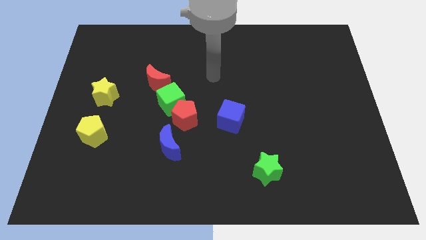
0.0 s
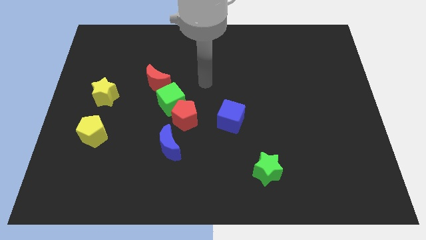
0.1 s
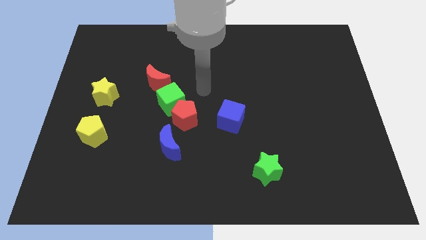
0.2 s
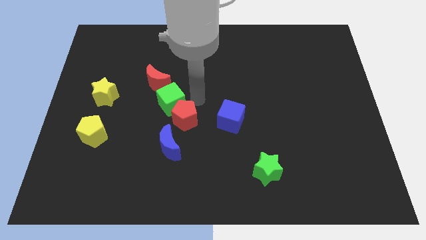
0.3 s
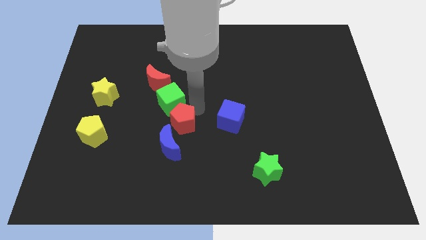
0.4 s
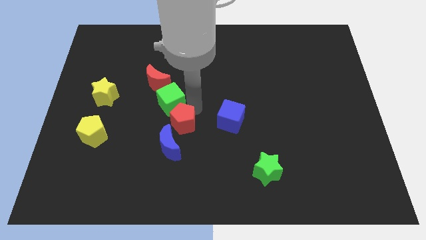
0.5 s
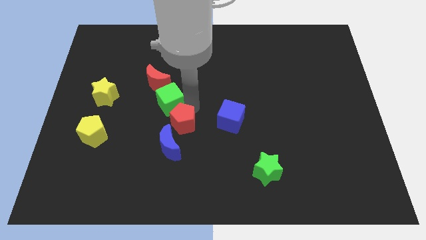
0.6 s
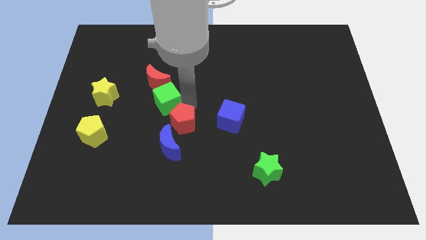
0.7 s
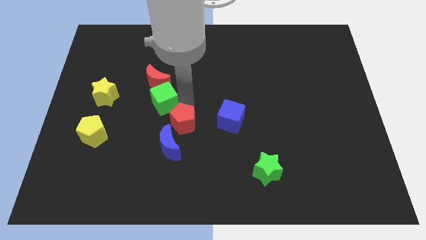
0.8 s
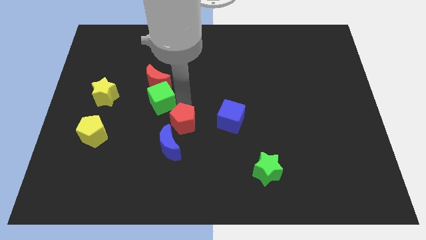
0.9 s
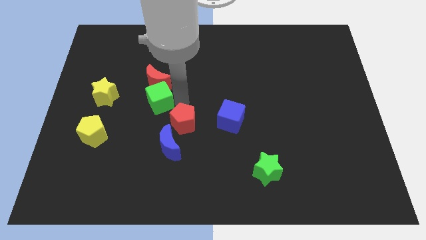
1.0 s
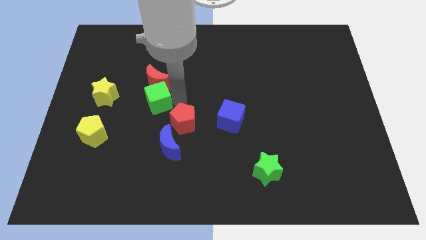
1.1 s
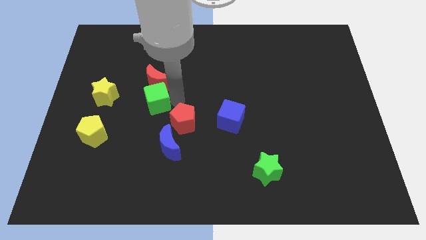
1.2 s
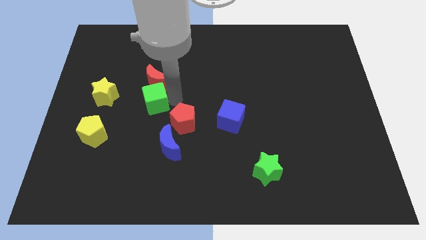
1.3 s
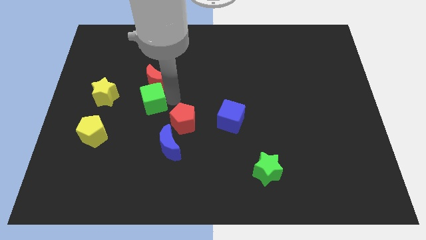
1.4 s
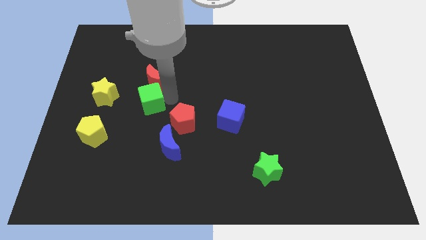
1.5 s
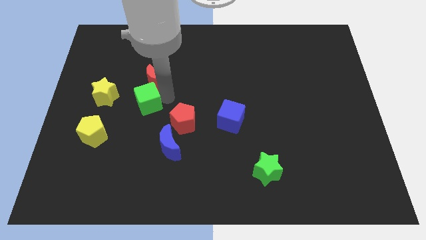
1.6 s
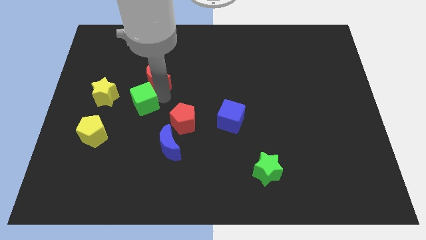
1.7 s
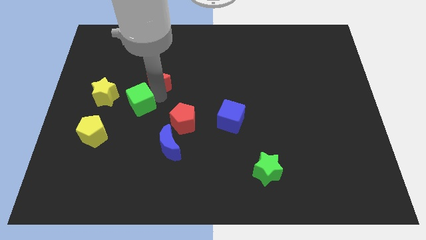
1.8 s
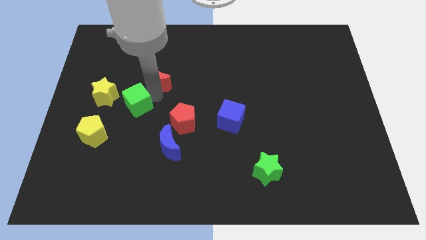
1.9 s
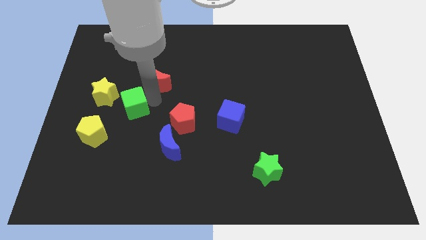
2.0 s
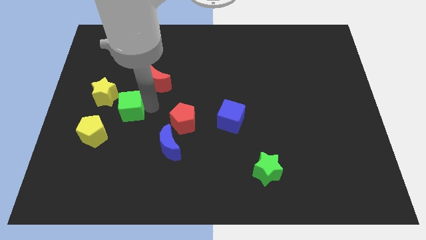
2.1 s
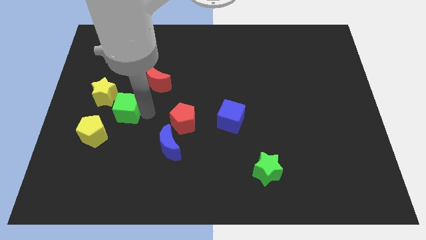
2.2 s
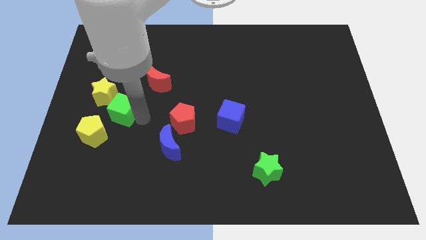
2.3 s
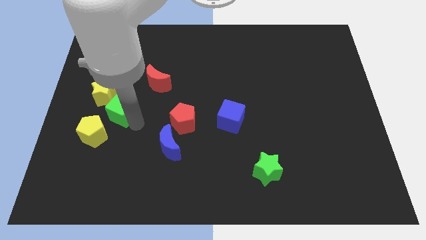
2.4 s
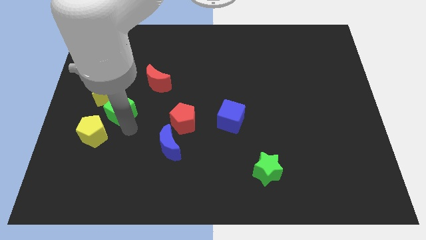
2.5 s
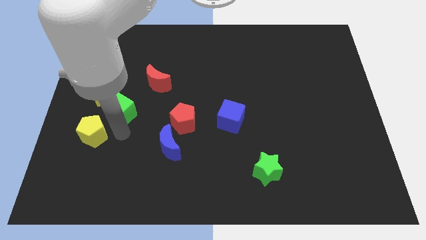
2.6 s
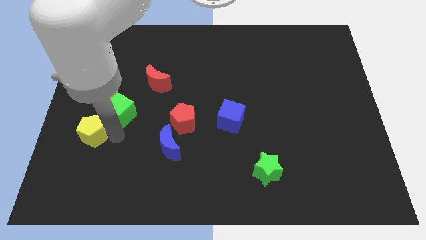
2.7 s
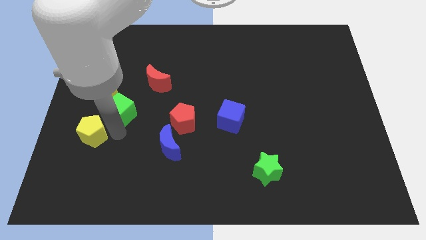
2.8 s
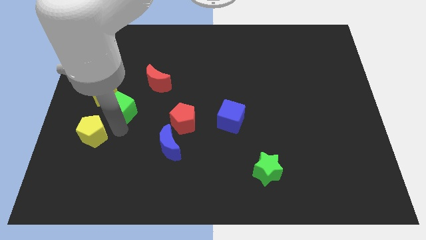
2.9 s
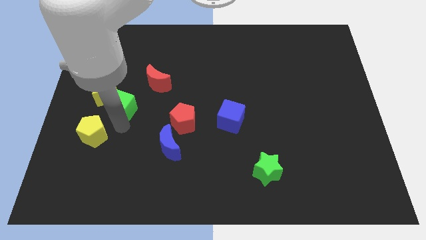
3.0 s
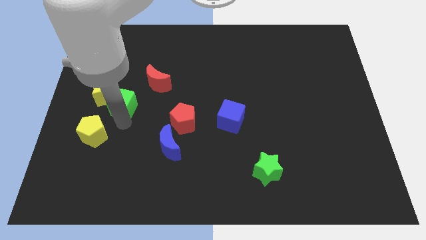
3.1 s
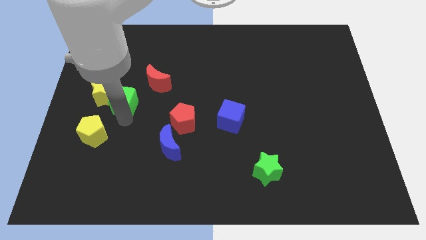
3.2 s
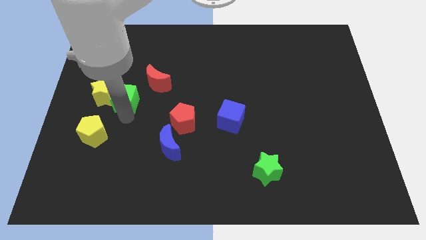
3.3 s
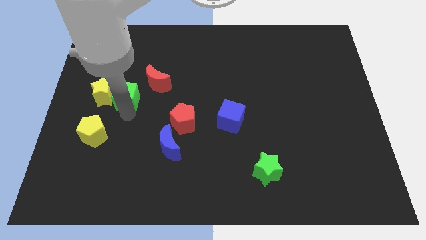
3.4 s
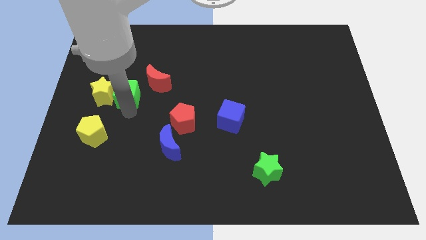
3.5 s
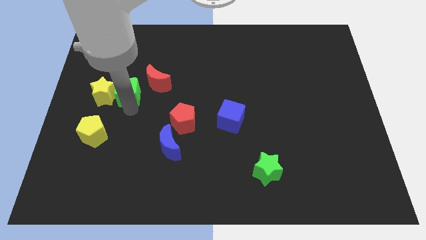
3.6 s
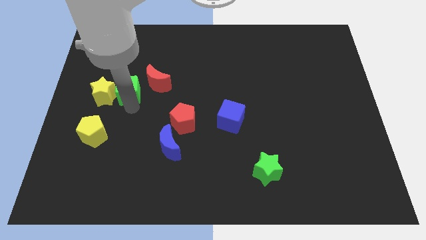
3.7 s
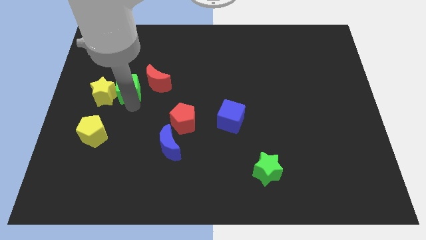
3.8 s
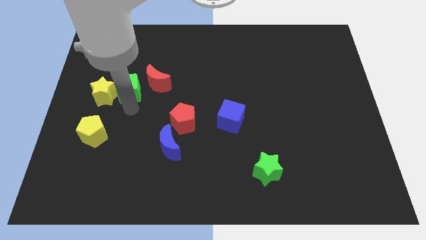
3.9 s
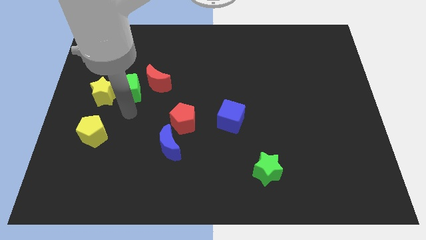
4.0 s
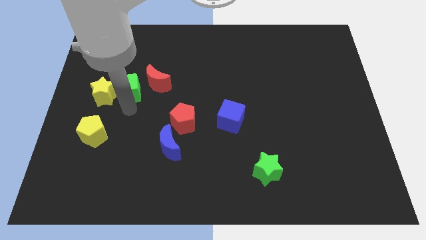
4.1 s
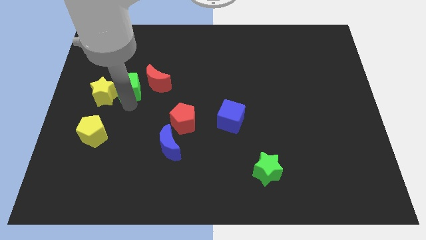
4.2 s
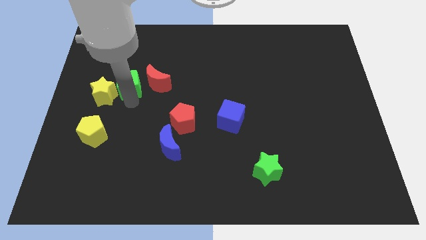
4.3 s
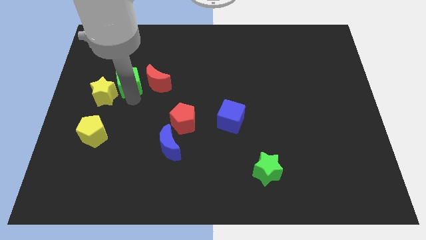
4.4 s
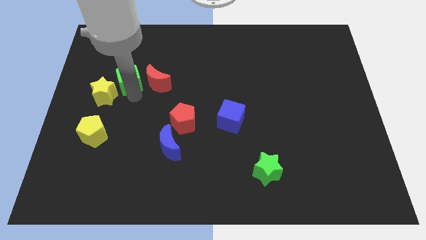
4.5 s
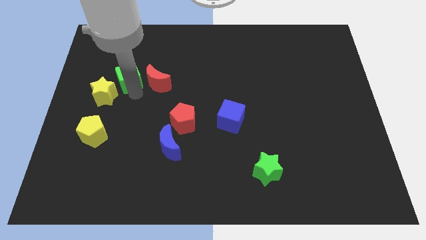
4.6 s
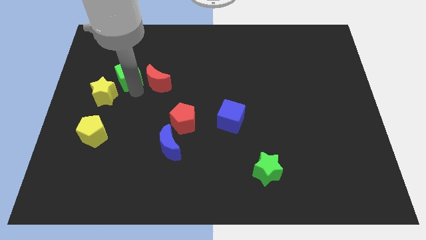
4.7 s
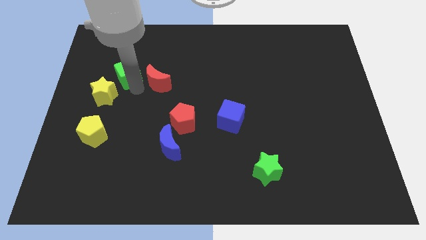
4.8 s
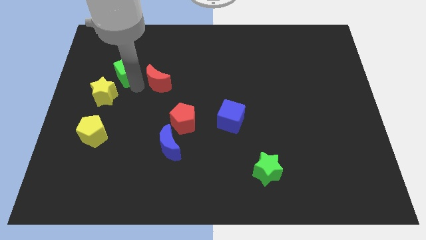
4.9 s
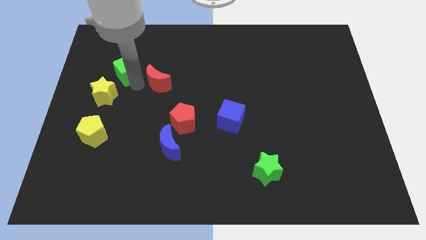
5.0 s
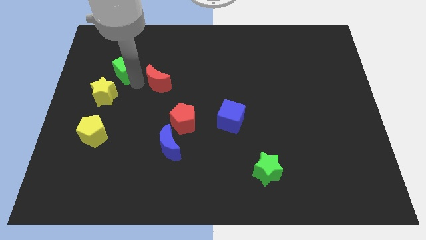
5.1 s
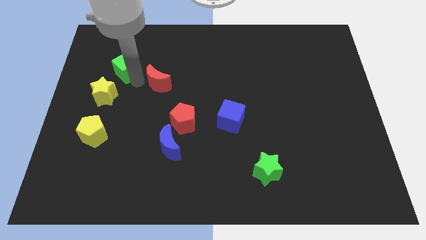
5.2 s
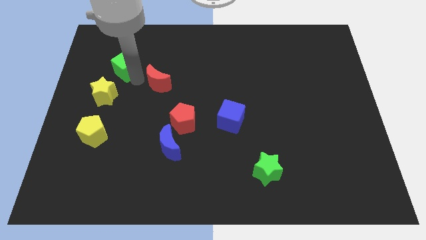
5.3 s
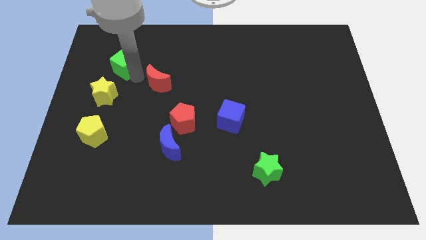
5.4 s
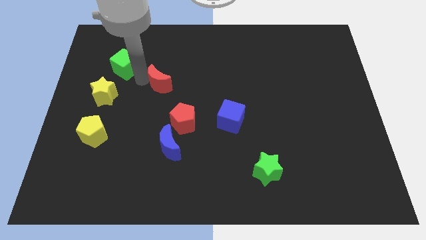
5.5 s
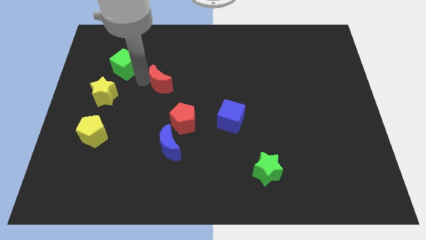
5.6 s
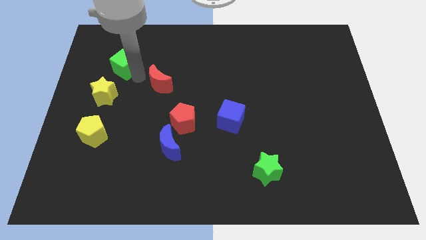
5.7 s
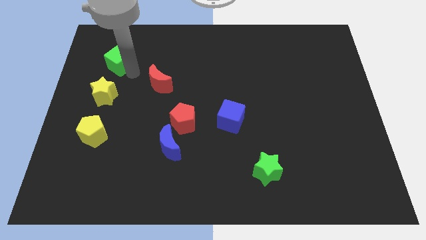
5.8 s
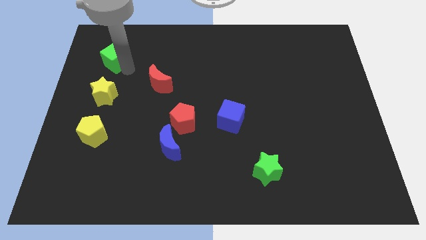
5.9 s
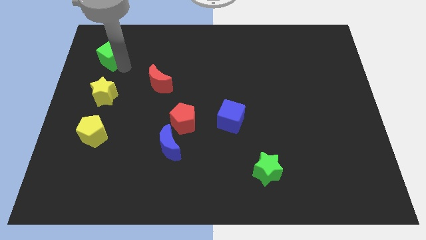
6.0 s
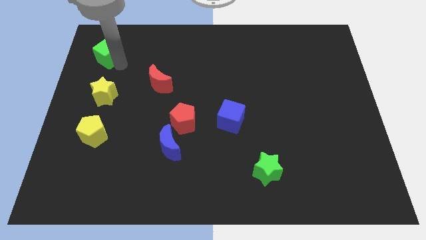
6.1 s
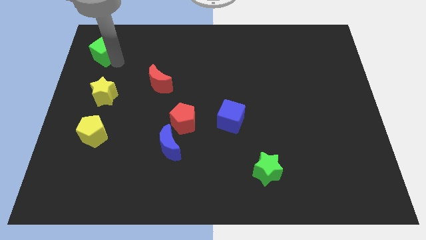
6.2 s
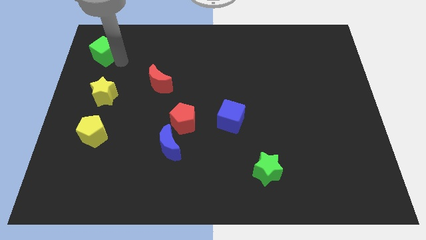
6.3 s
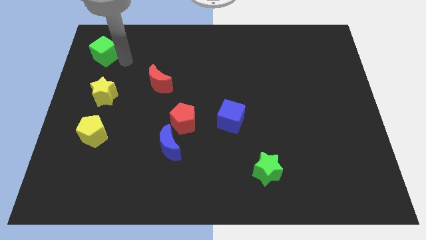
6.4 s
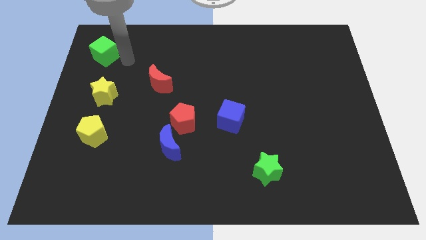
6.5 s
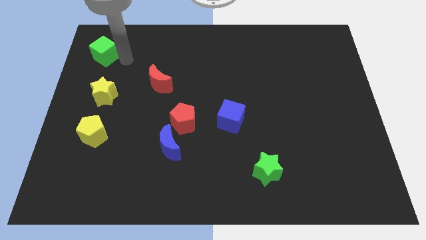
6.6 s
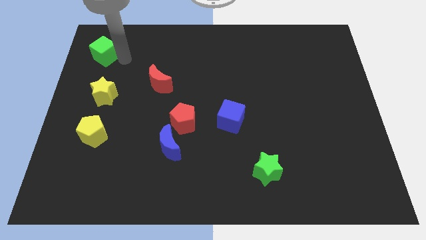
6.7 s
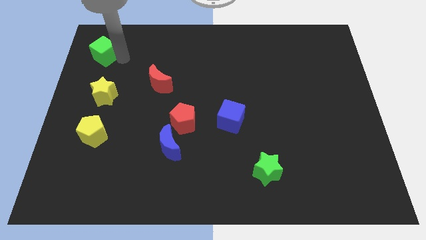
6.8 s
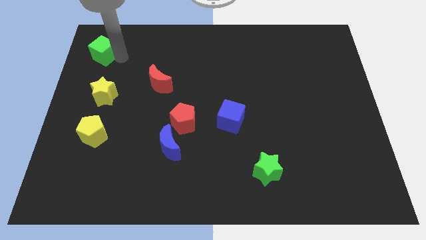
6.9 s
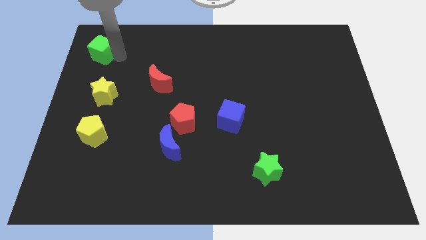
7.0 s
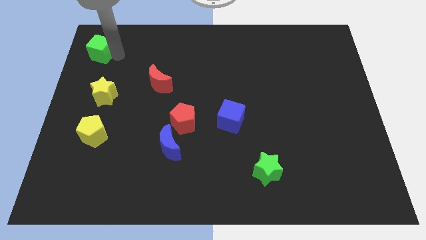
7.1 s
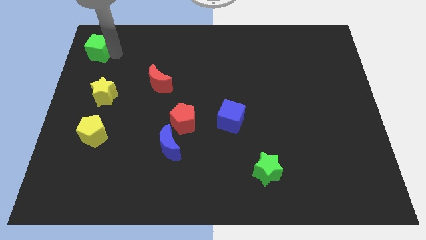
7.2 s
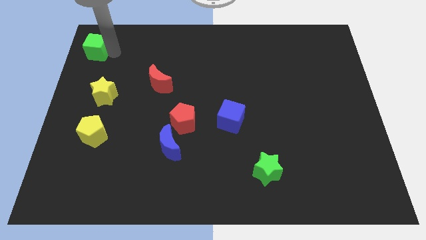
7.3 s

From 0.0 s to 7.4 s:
put the green cube to the top left corner
